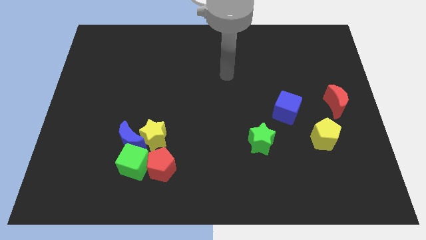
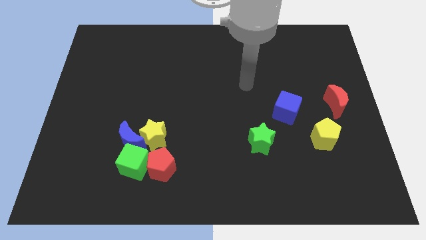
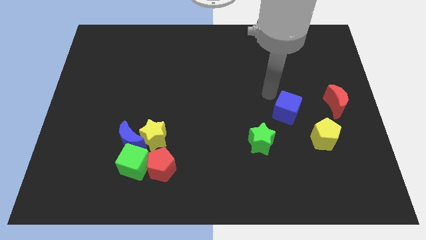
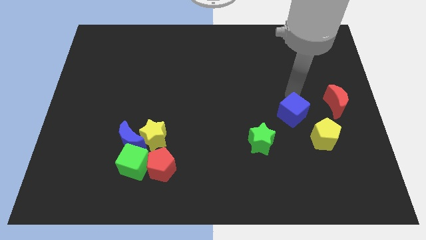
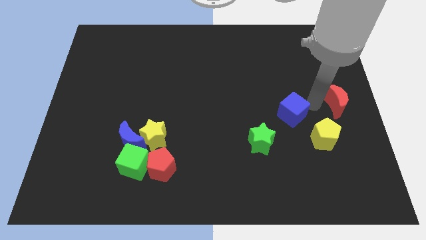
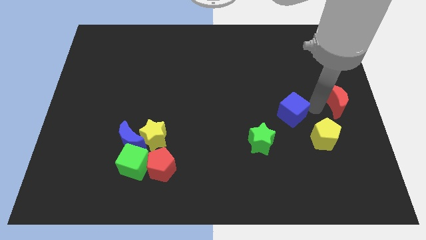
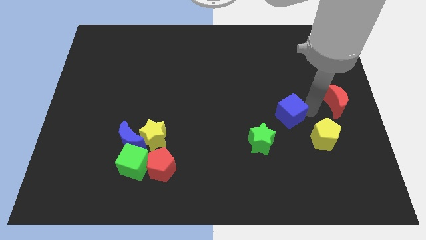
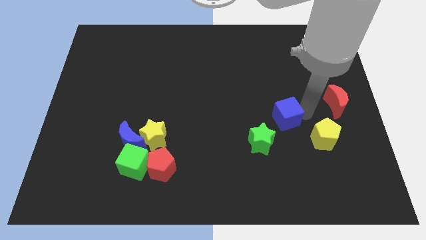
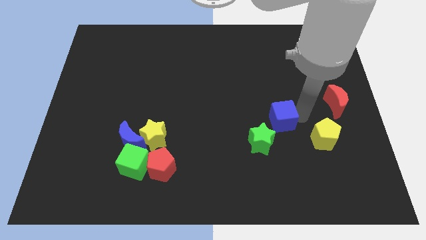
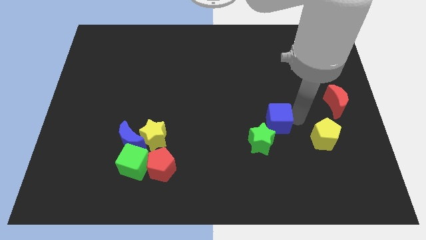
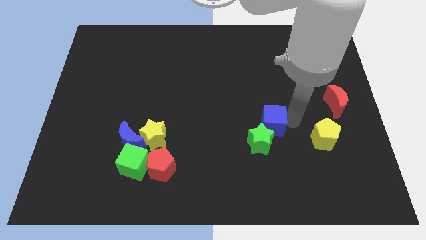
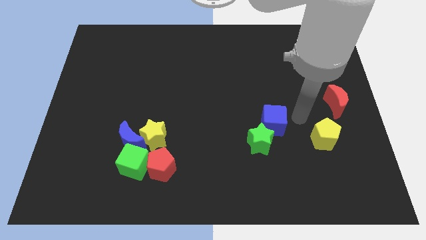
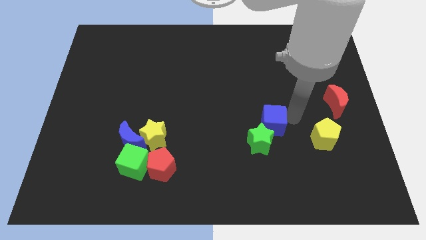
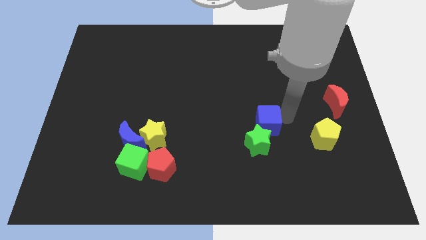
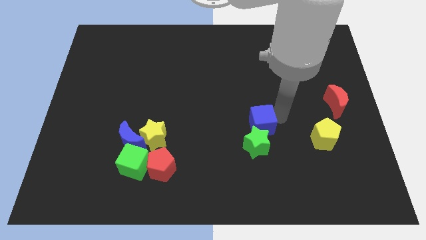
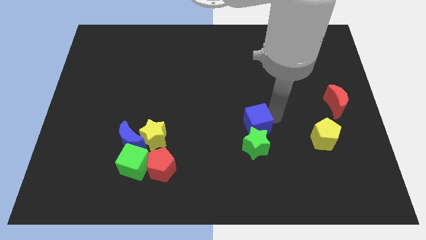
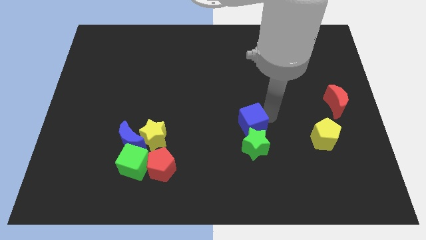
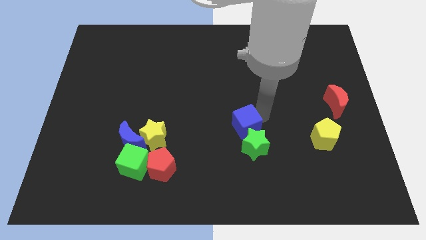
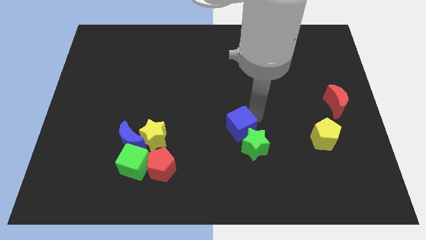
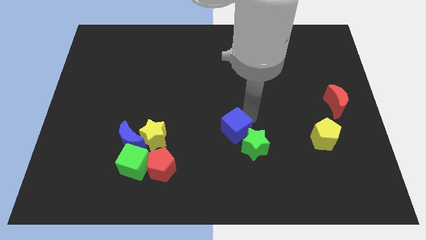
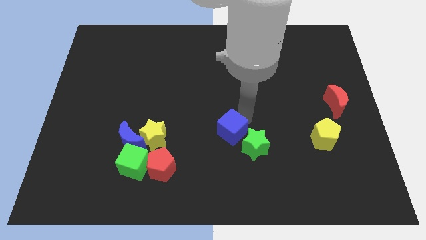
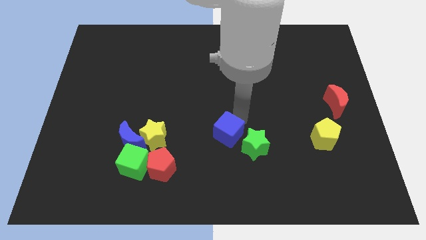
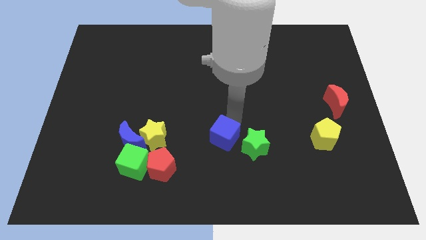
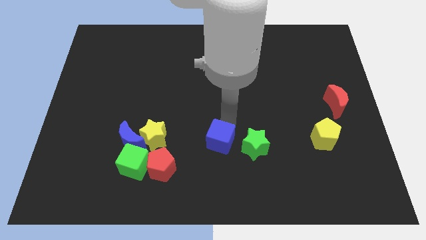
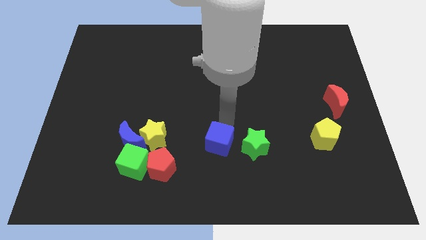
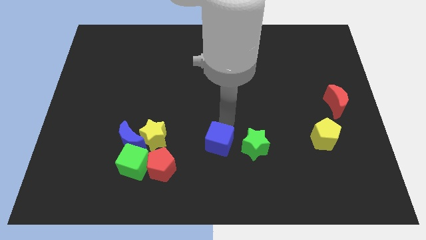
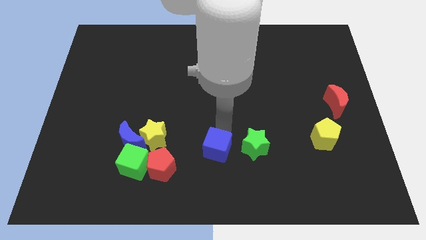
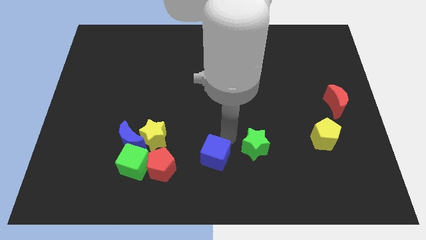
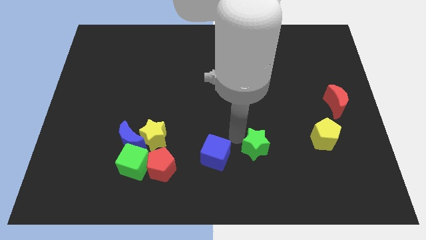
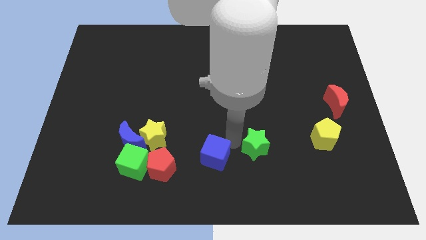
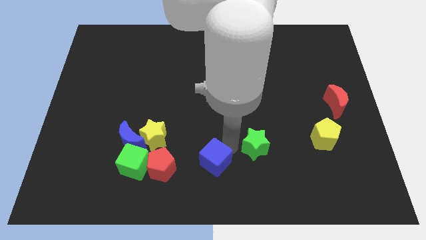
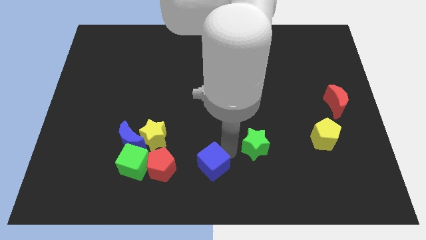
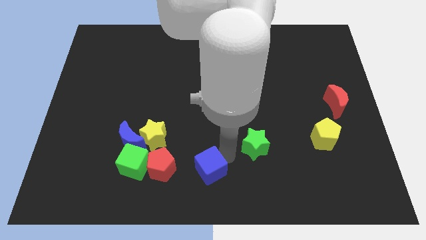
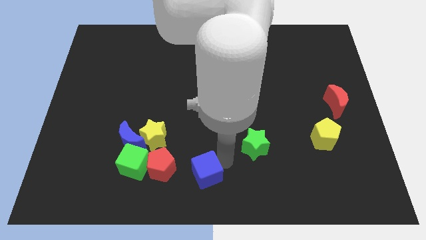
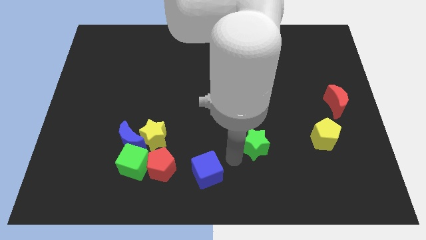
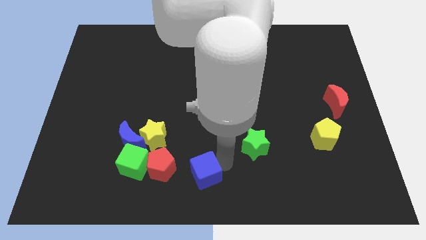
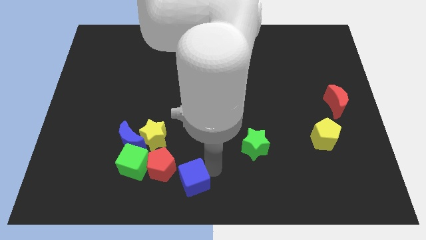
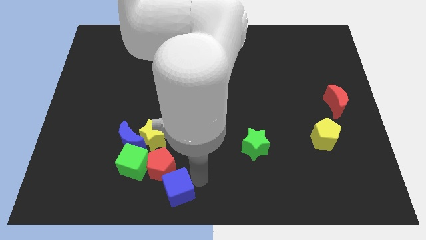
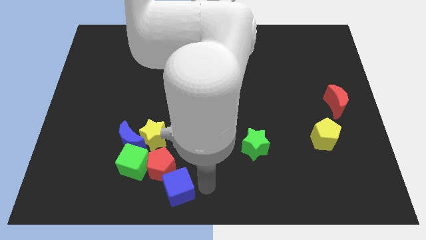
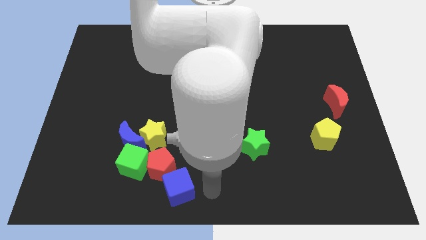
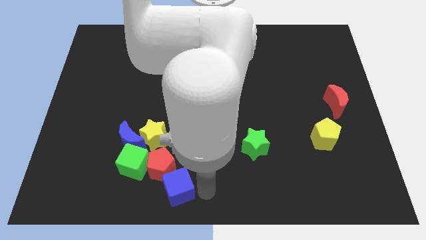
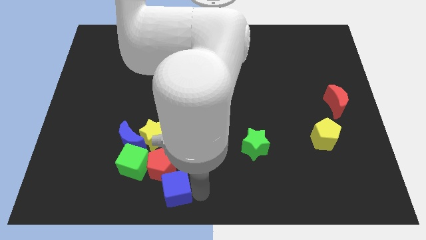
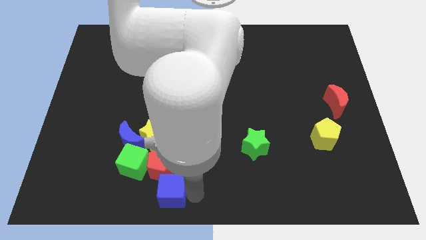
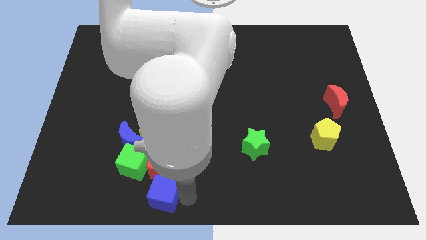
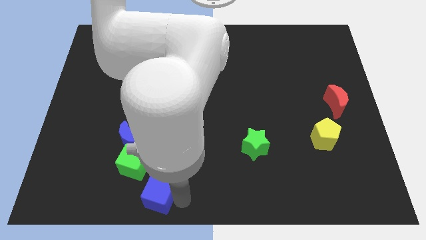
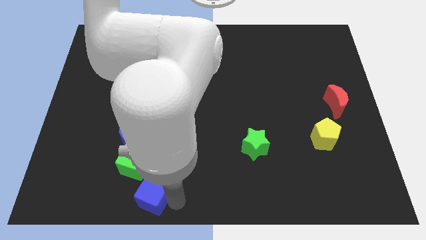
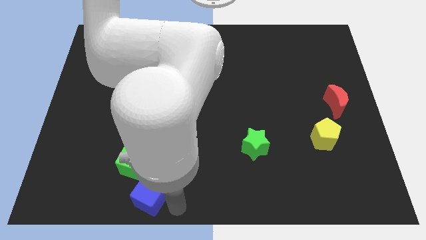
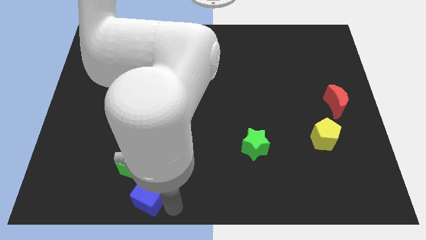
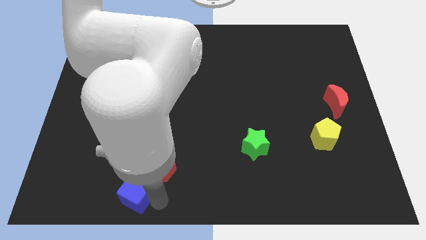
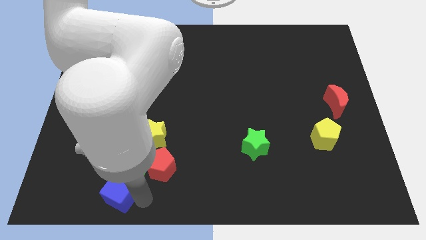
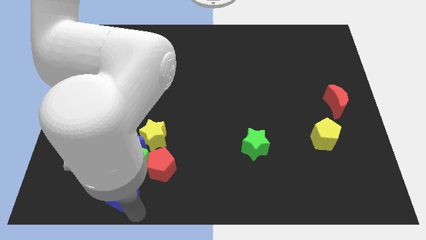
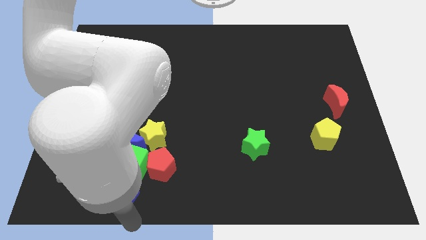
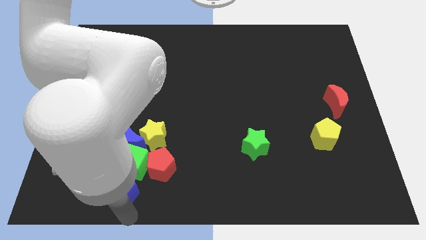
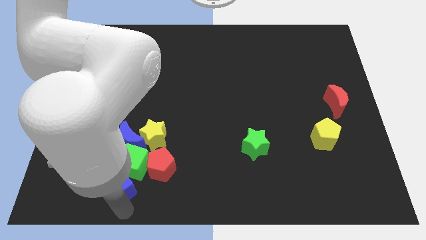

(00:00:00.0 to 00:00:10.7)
put the blue cube just left of the red pentagon

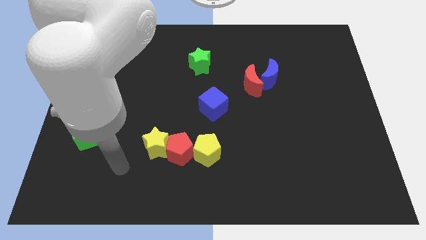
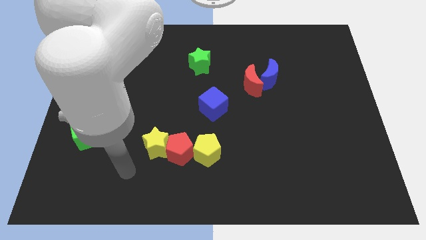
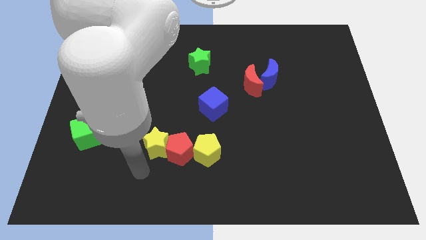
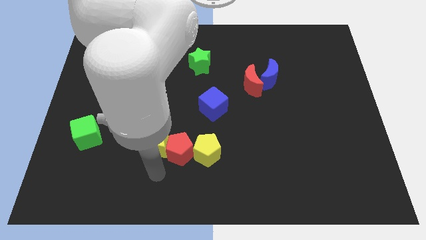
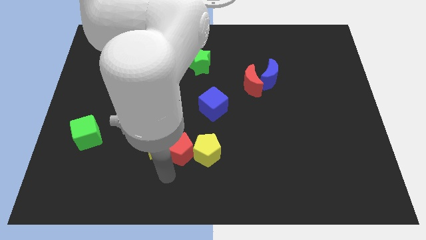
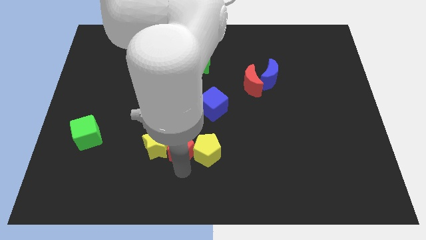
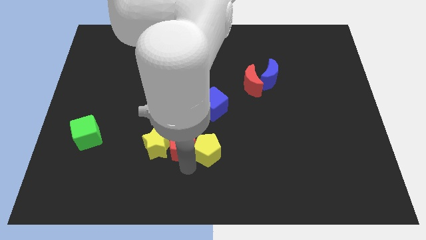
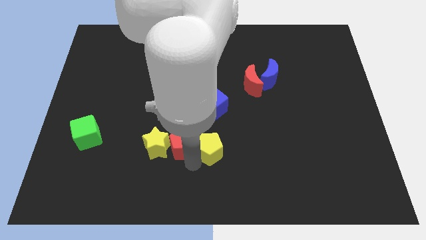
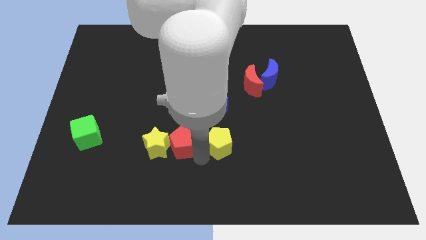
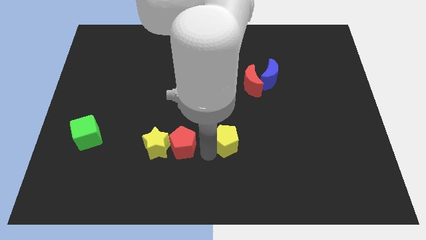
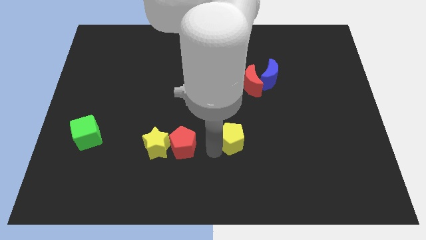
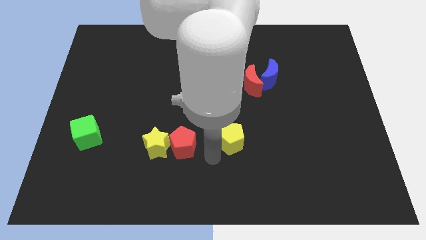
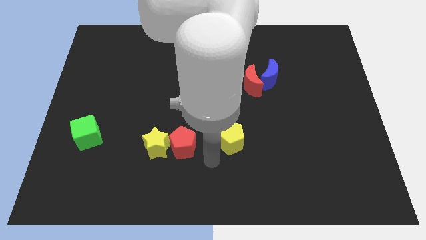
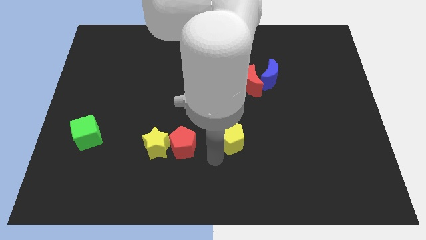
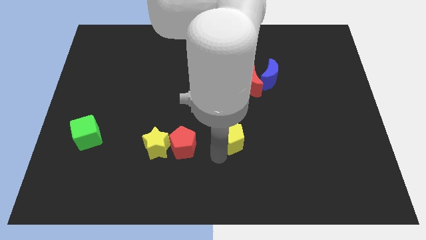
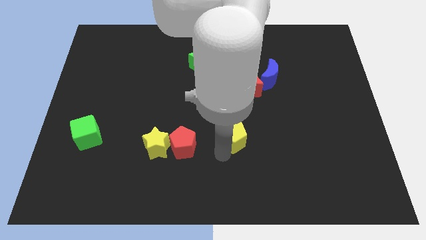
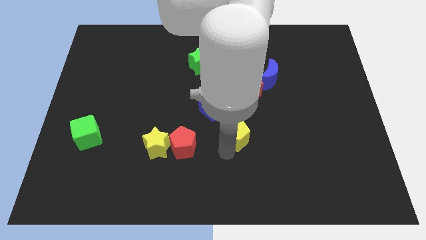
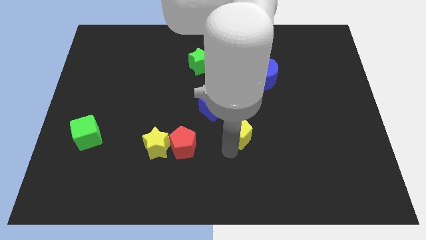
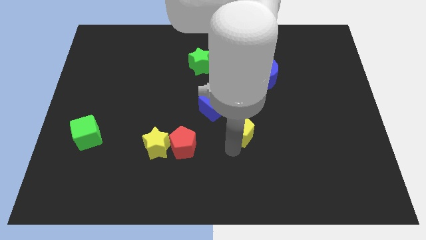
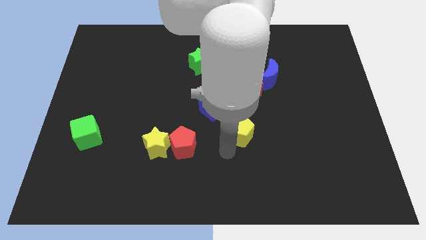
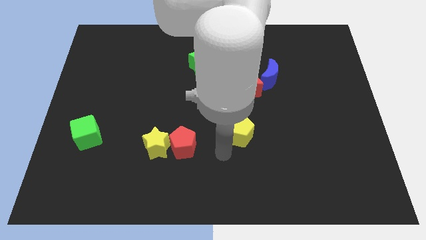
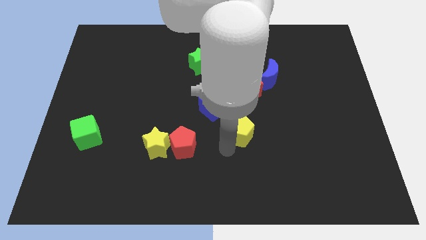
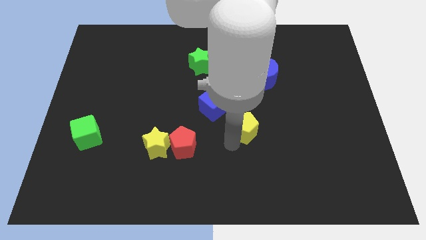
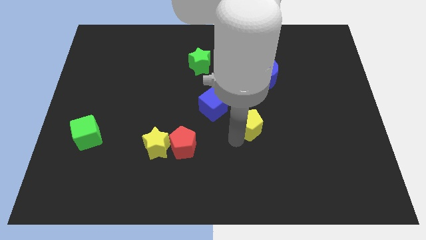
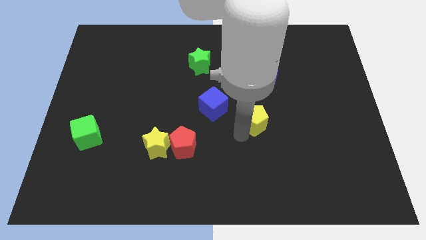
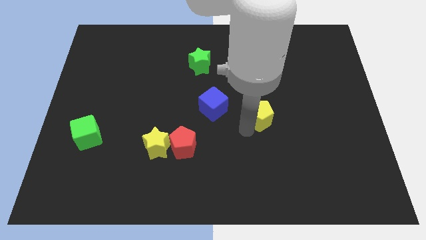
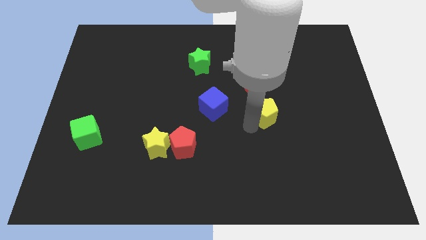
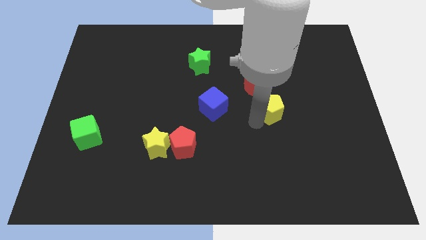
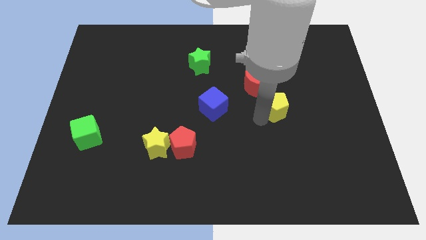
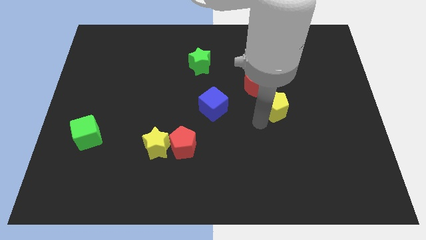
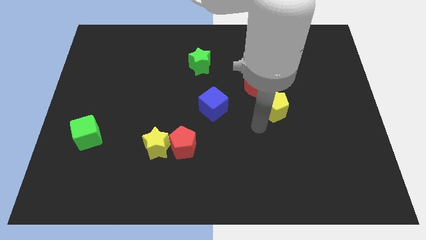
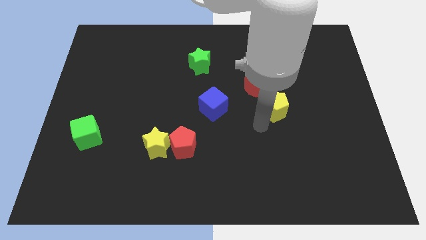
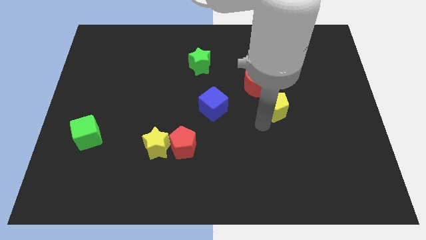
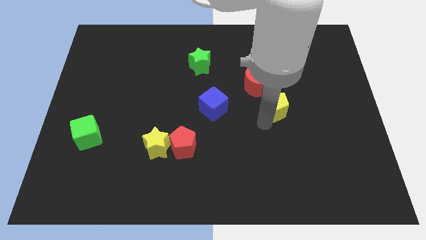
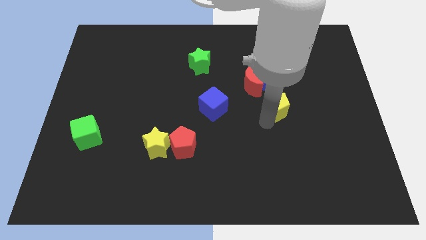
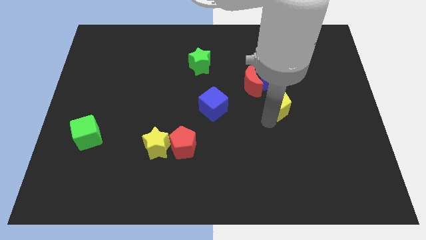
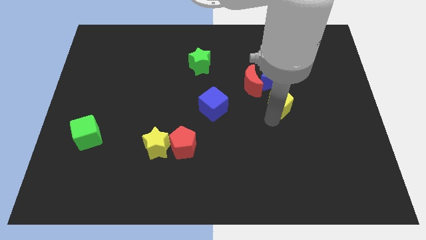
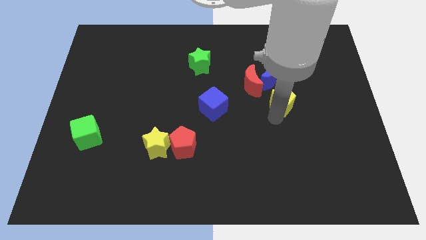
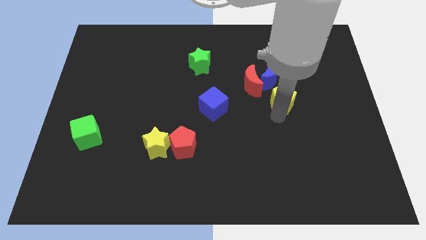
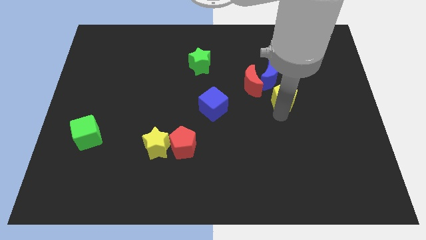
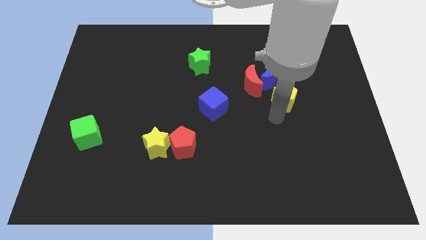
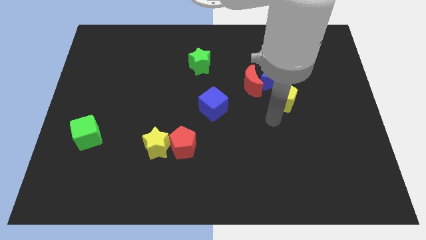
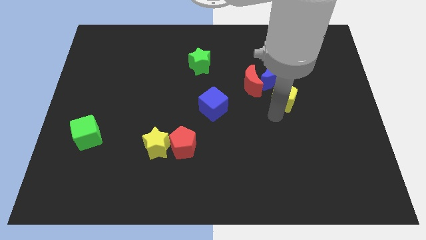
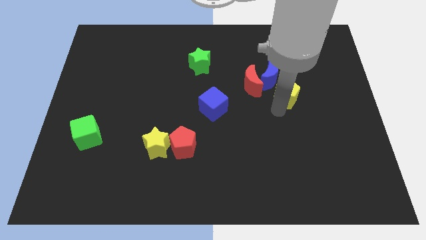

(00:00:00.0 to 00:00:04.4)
put the yellow pentagon to the right of the red moon
